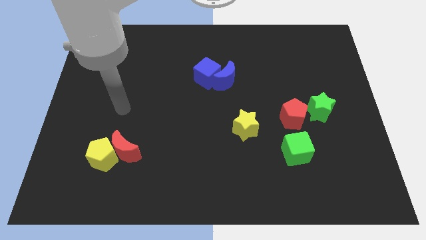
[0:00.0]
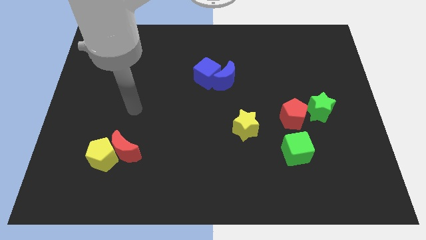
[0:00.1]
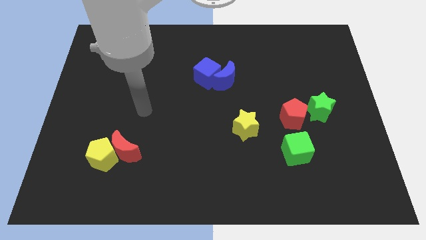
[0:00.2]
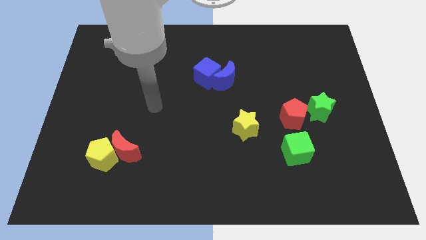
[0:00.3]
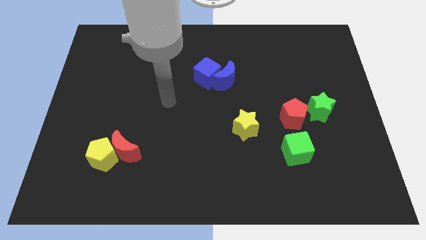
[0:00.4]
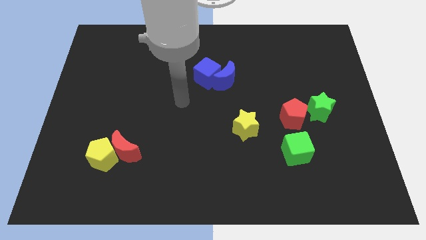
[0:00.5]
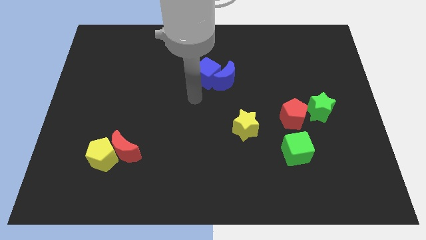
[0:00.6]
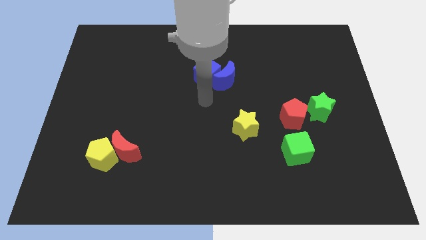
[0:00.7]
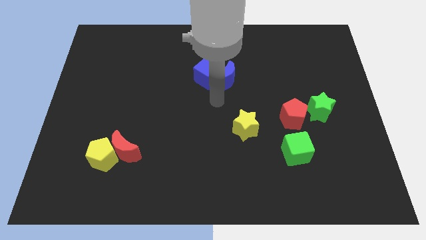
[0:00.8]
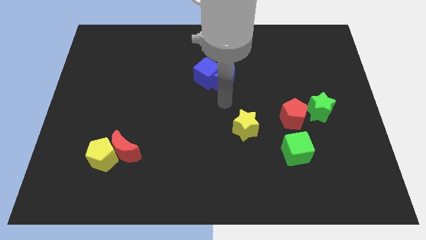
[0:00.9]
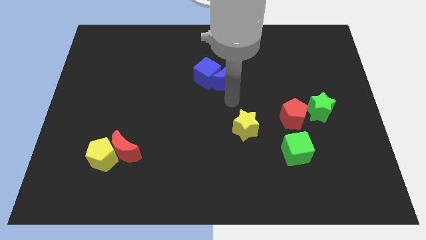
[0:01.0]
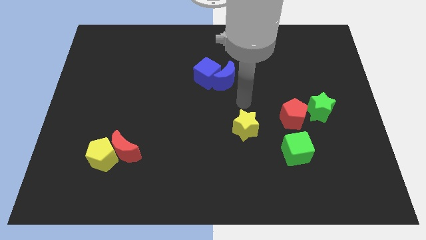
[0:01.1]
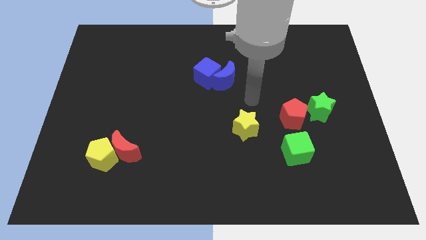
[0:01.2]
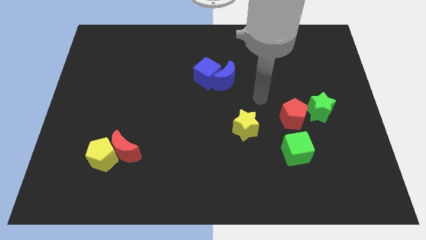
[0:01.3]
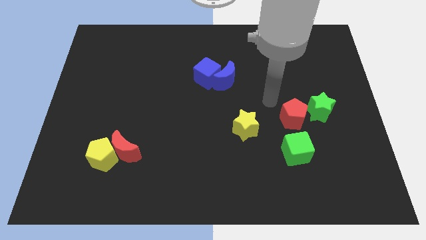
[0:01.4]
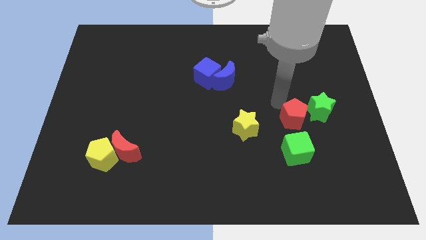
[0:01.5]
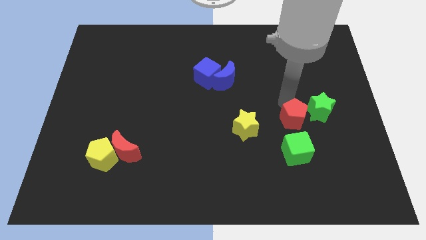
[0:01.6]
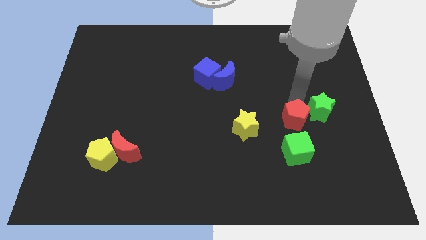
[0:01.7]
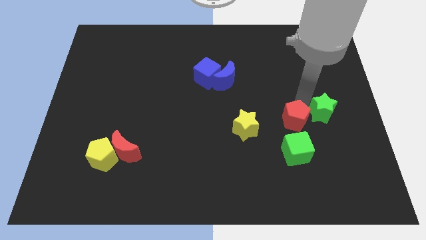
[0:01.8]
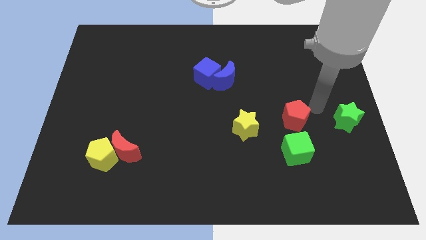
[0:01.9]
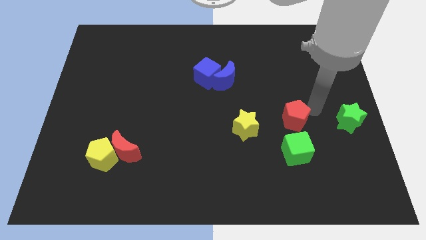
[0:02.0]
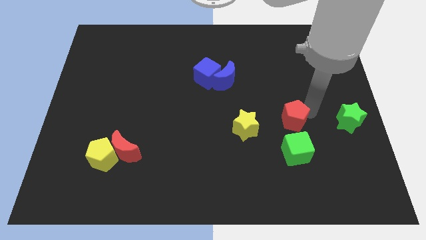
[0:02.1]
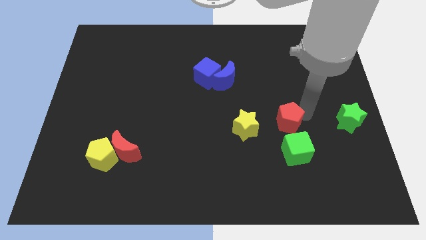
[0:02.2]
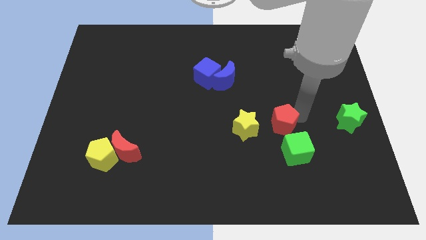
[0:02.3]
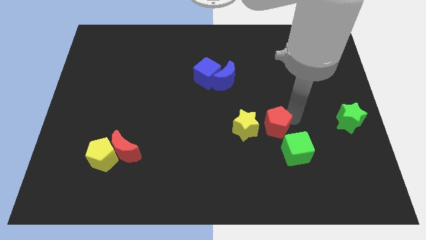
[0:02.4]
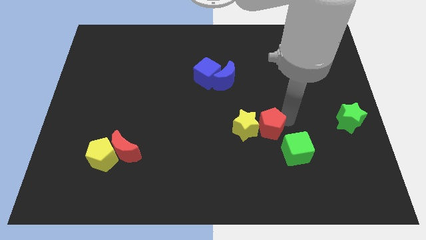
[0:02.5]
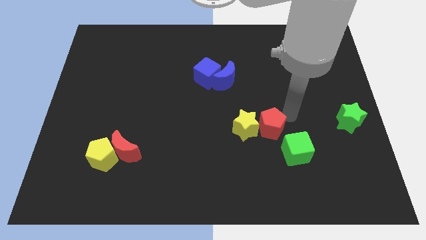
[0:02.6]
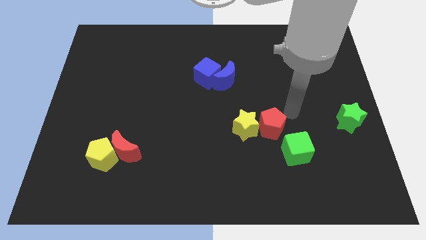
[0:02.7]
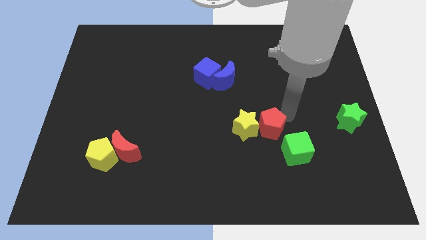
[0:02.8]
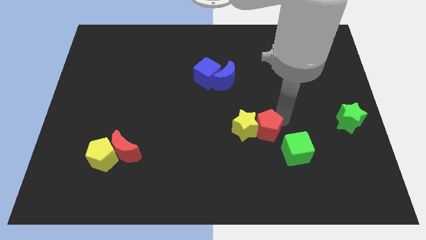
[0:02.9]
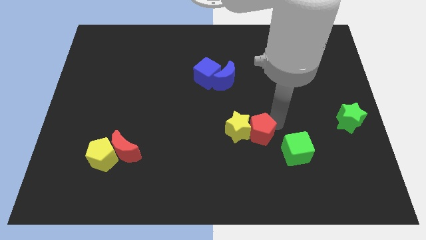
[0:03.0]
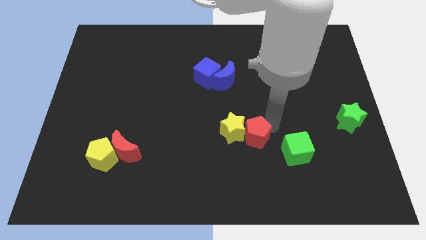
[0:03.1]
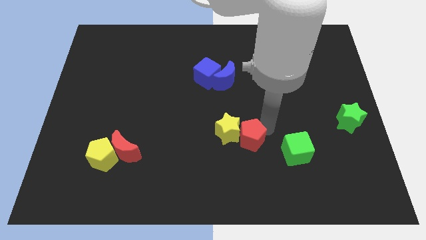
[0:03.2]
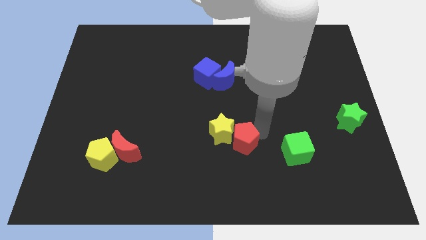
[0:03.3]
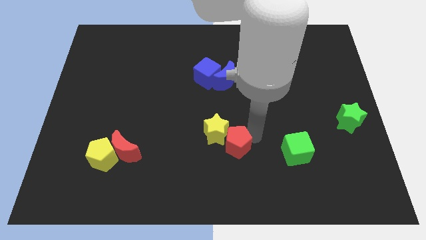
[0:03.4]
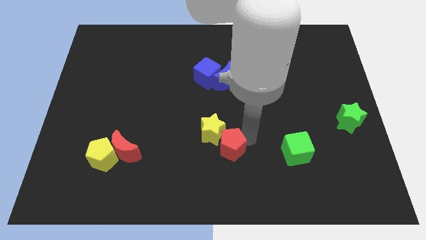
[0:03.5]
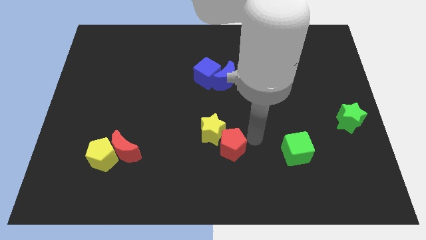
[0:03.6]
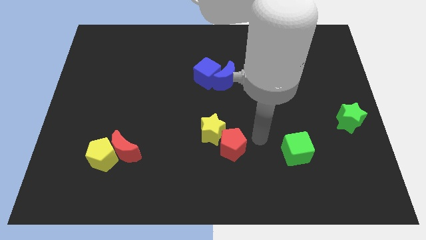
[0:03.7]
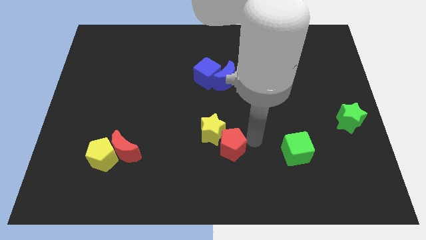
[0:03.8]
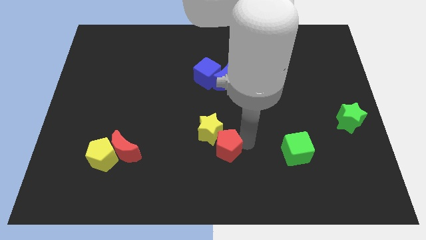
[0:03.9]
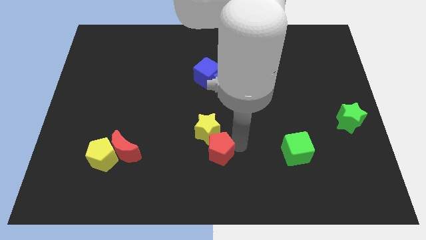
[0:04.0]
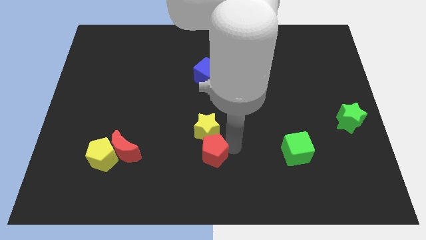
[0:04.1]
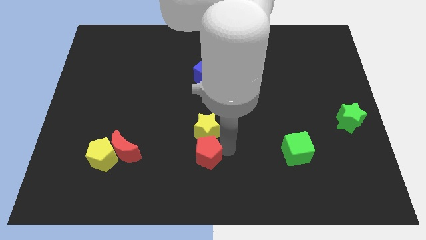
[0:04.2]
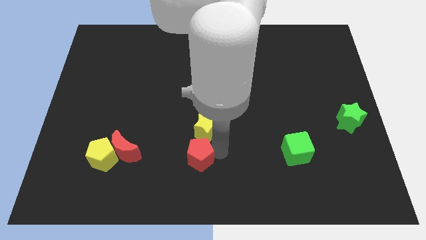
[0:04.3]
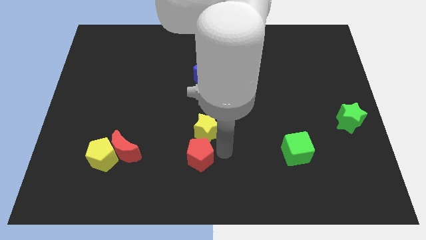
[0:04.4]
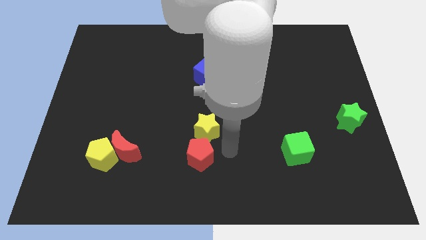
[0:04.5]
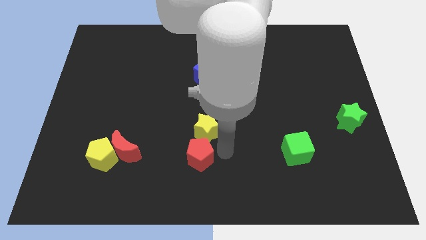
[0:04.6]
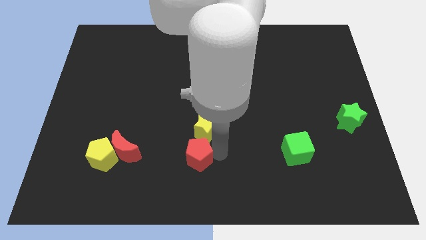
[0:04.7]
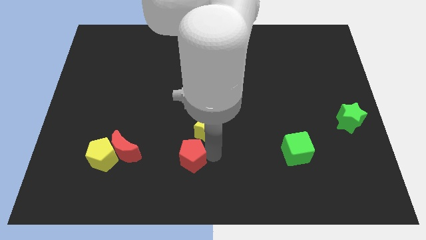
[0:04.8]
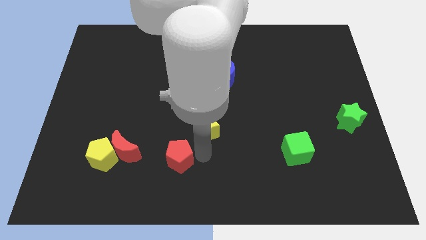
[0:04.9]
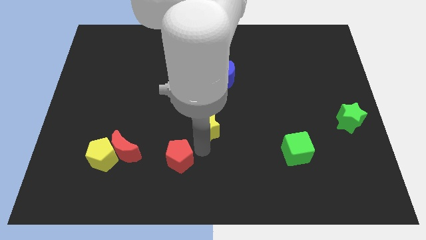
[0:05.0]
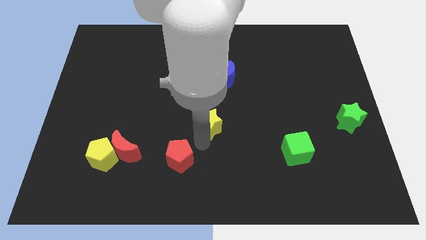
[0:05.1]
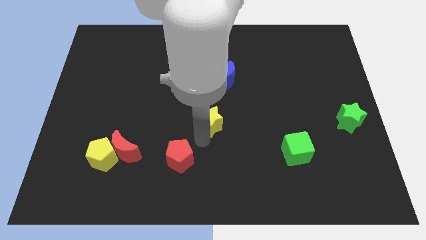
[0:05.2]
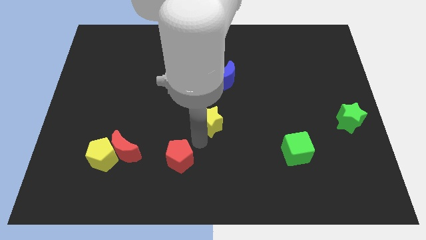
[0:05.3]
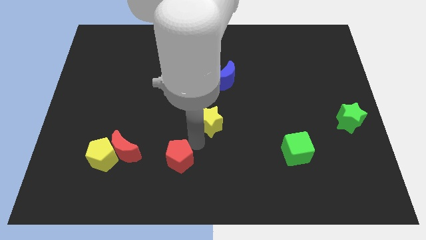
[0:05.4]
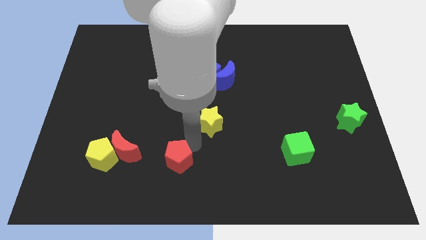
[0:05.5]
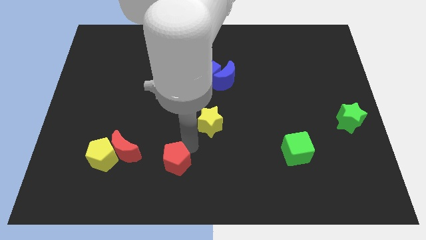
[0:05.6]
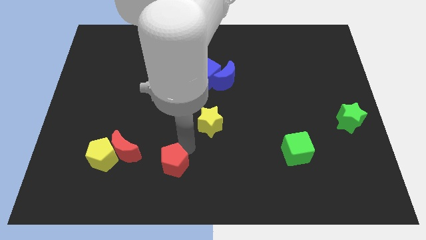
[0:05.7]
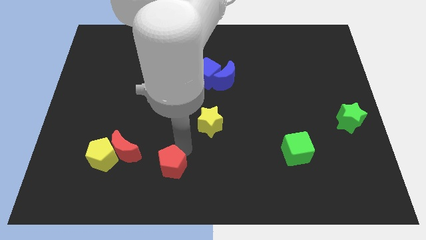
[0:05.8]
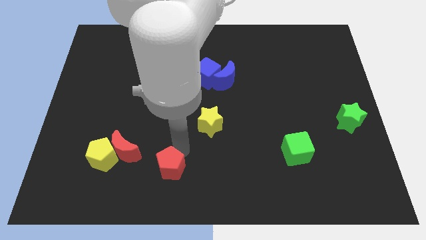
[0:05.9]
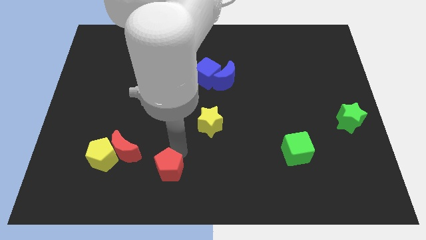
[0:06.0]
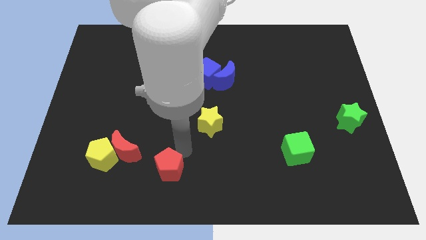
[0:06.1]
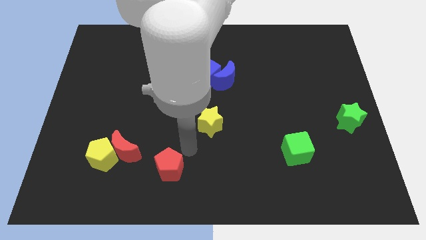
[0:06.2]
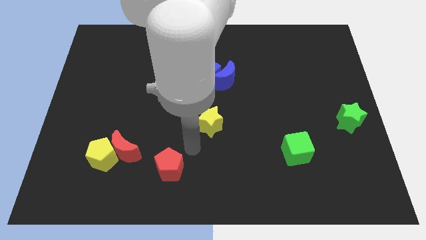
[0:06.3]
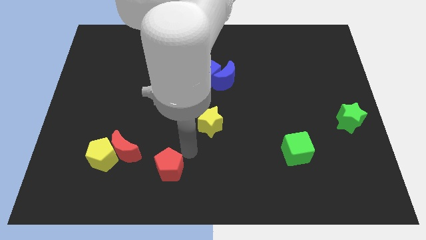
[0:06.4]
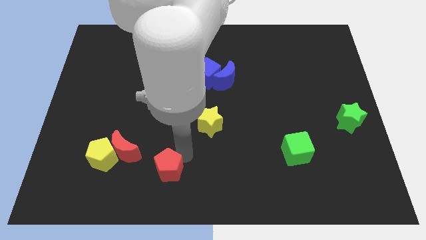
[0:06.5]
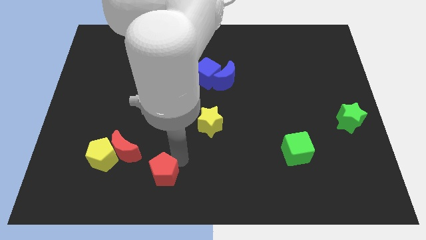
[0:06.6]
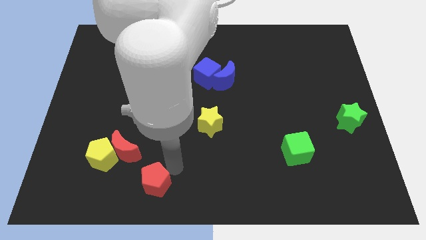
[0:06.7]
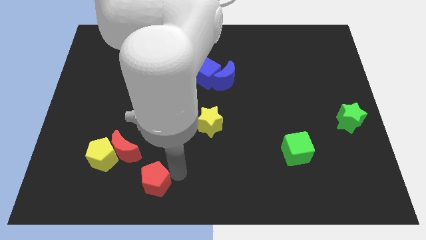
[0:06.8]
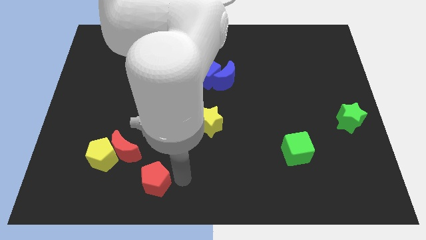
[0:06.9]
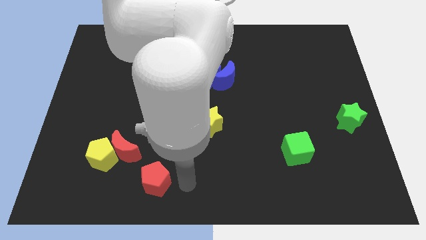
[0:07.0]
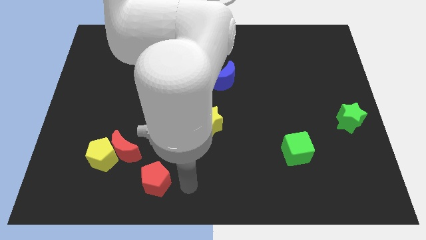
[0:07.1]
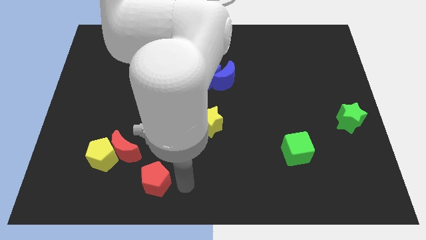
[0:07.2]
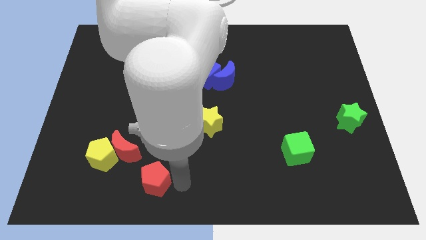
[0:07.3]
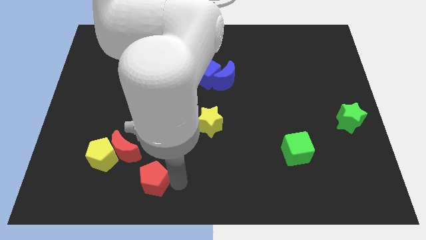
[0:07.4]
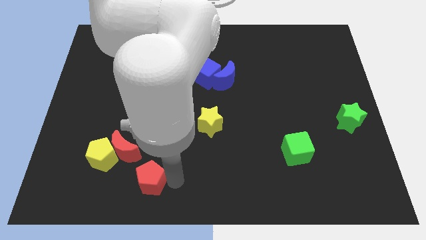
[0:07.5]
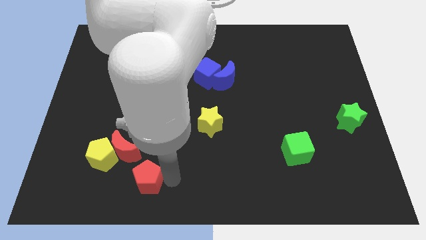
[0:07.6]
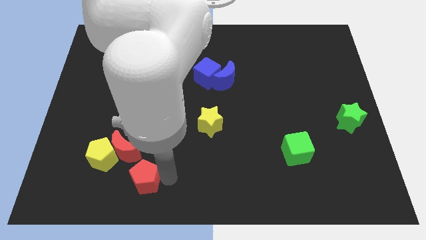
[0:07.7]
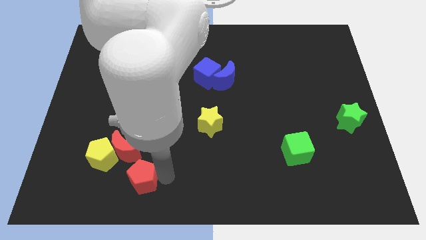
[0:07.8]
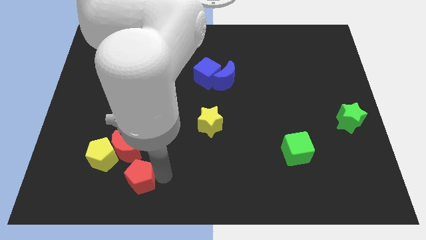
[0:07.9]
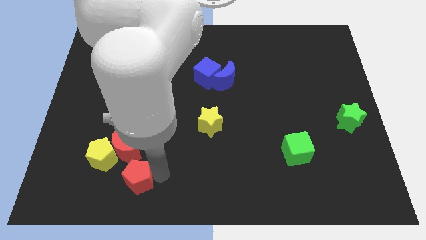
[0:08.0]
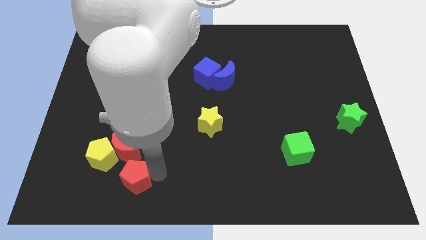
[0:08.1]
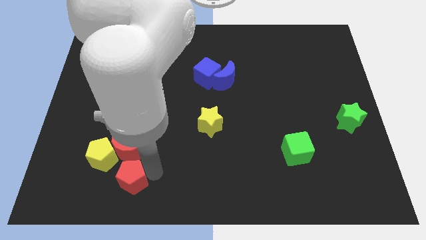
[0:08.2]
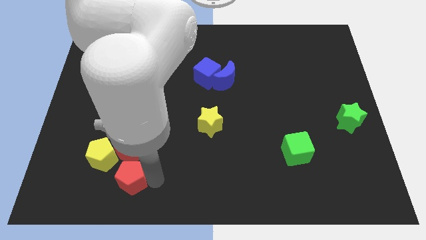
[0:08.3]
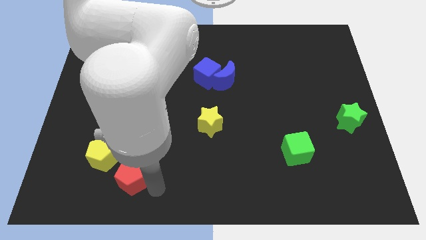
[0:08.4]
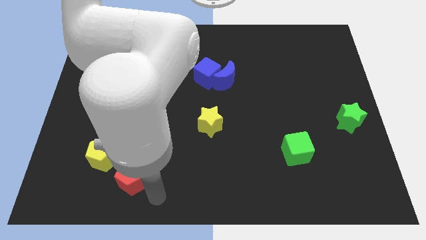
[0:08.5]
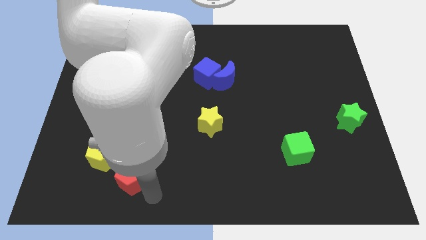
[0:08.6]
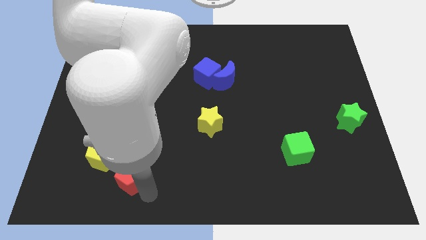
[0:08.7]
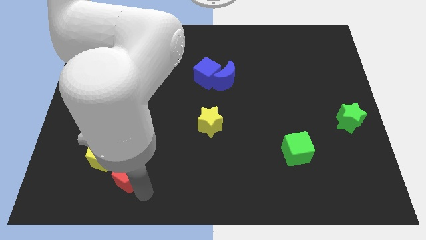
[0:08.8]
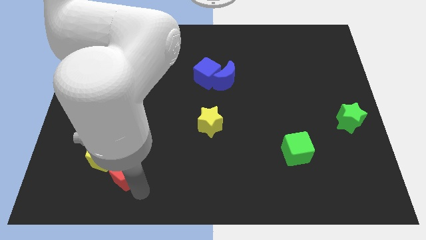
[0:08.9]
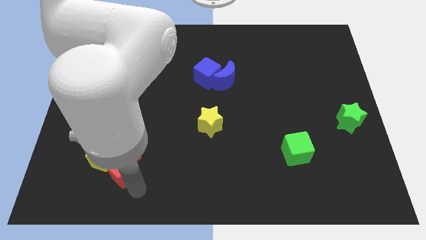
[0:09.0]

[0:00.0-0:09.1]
put the red pentagon to the yellow pentagon
